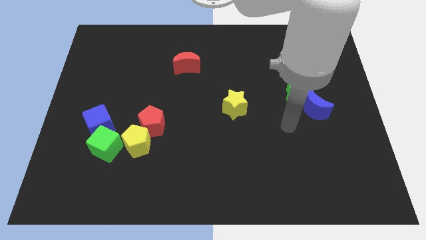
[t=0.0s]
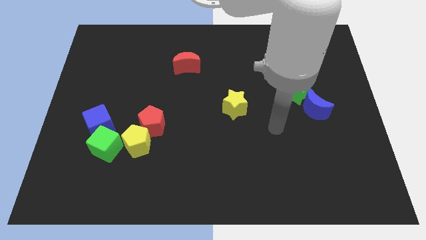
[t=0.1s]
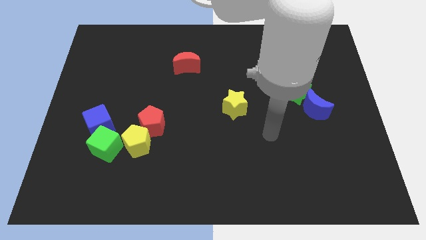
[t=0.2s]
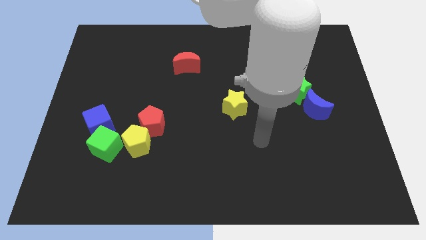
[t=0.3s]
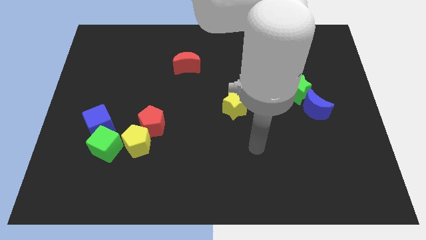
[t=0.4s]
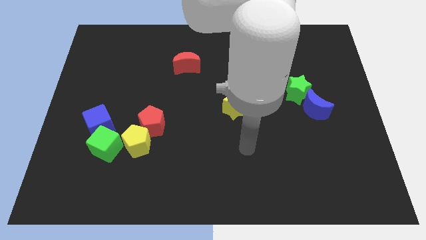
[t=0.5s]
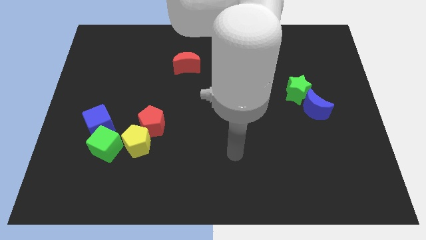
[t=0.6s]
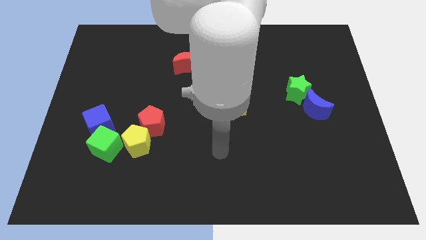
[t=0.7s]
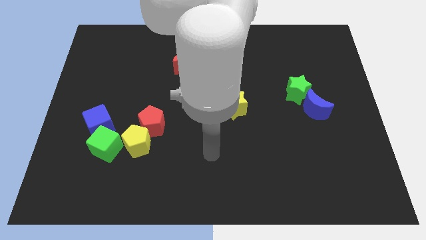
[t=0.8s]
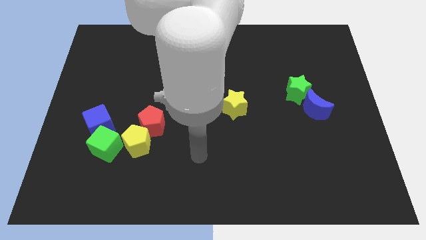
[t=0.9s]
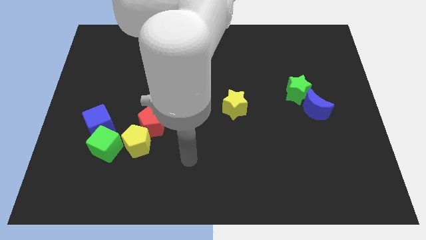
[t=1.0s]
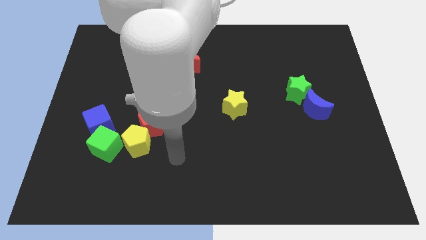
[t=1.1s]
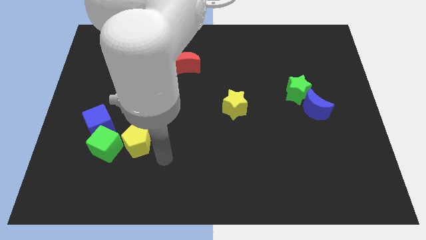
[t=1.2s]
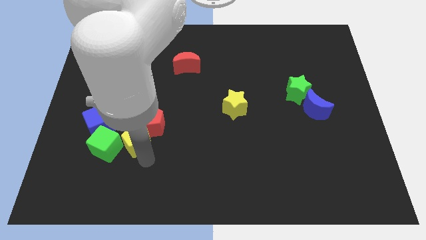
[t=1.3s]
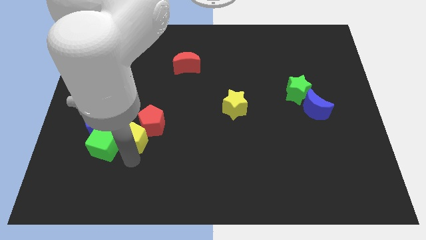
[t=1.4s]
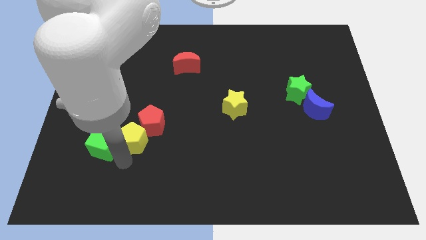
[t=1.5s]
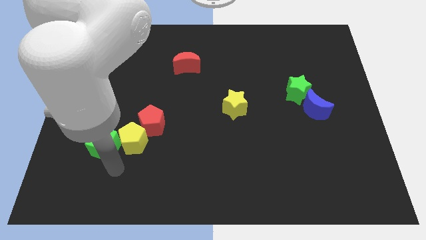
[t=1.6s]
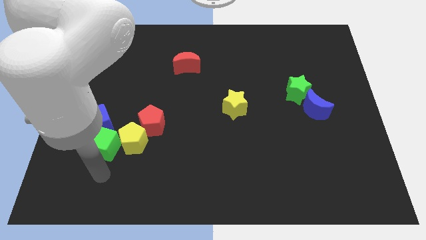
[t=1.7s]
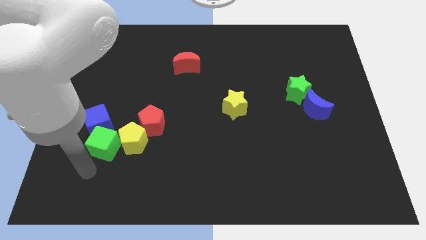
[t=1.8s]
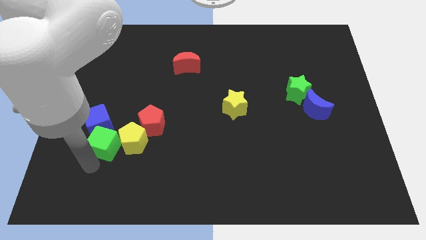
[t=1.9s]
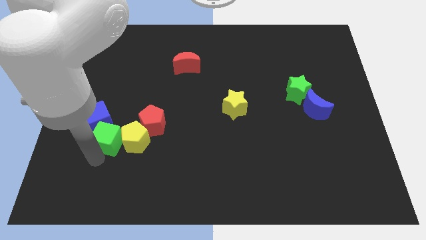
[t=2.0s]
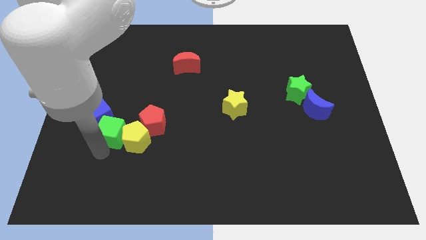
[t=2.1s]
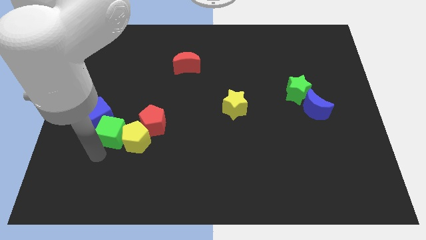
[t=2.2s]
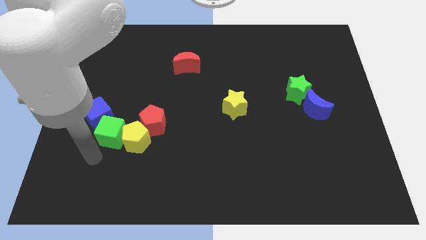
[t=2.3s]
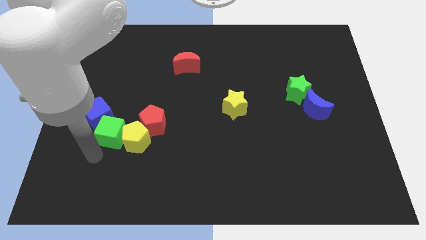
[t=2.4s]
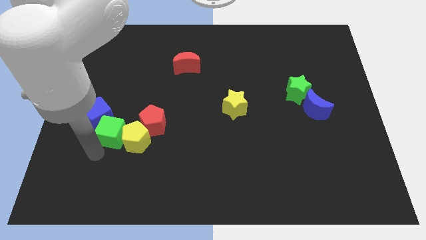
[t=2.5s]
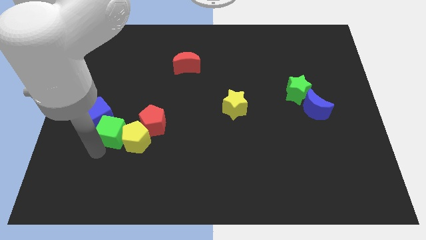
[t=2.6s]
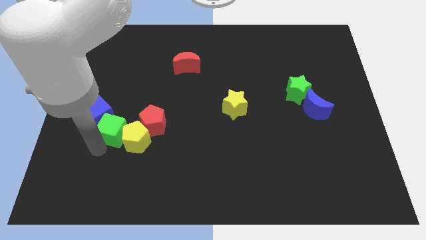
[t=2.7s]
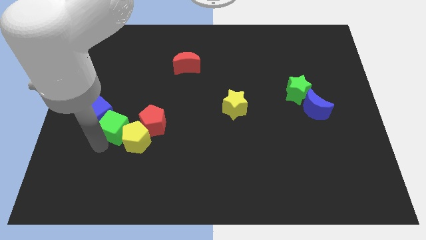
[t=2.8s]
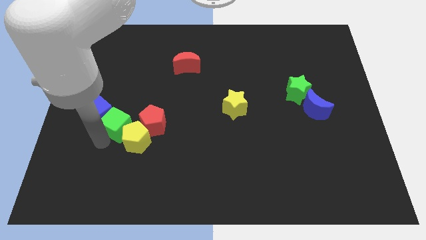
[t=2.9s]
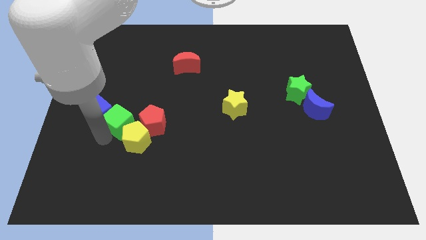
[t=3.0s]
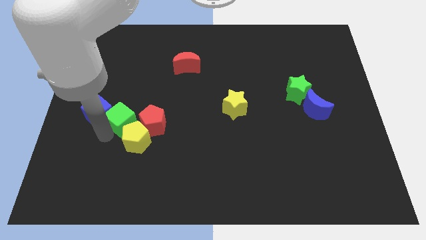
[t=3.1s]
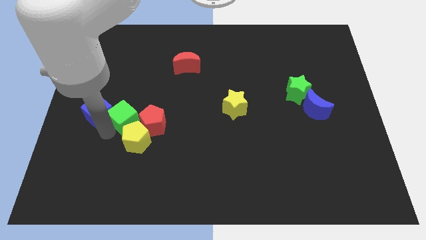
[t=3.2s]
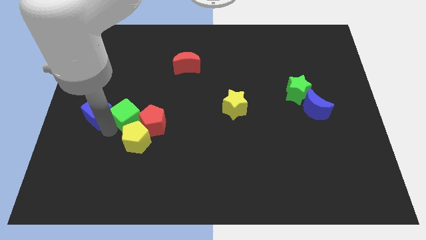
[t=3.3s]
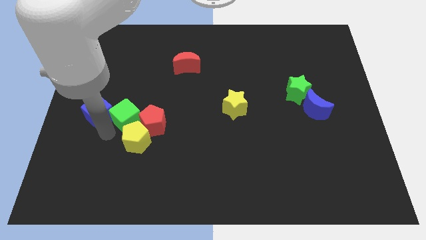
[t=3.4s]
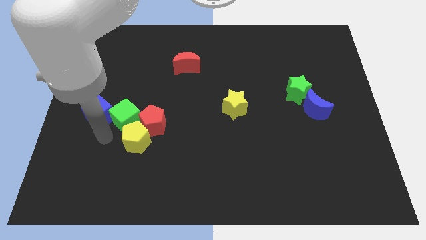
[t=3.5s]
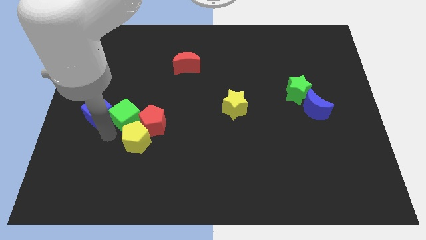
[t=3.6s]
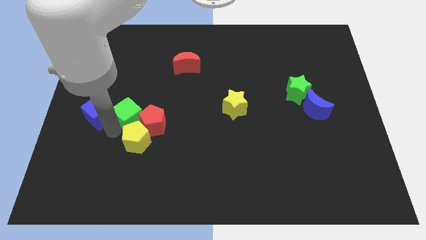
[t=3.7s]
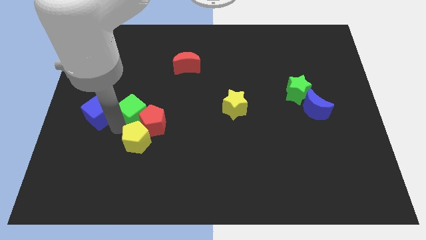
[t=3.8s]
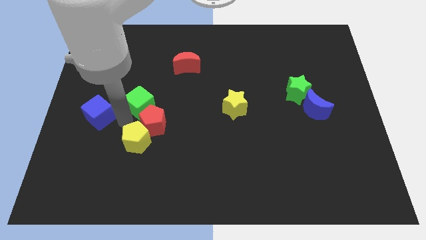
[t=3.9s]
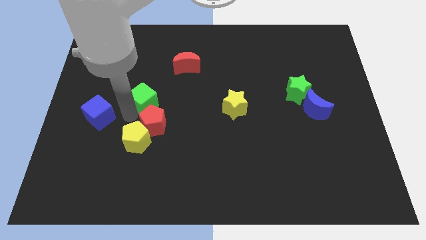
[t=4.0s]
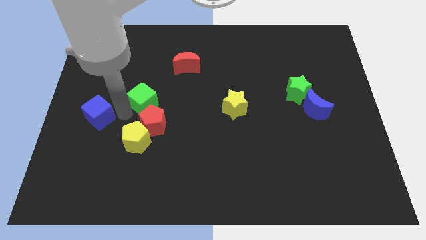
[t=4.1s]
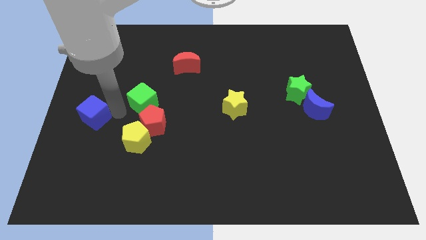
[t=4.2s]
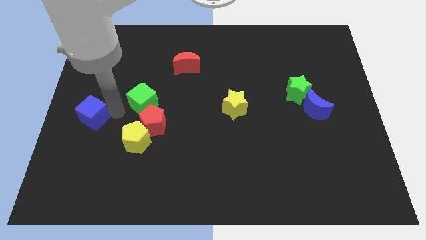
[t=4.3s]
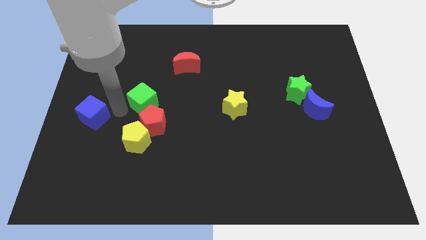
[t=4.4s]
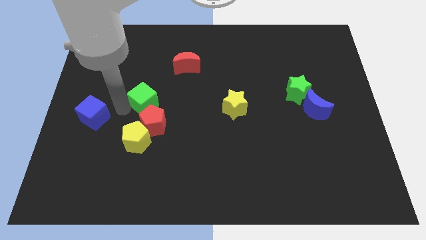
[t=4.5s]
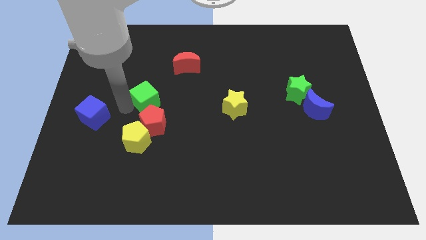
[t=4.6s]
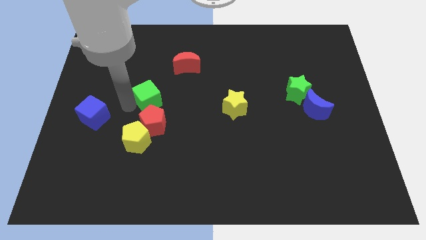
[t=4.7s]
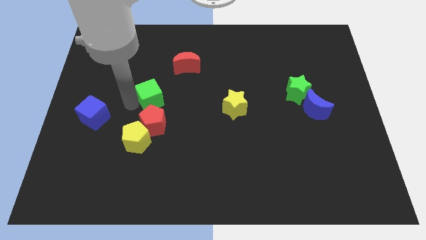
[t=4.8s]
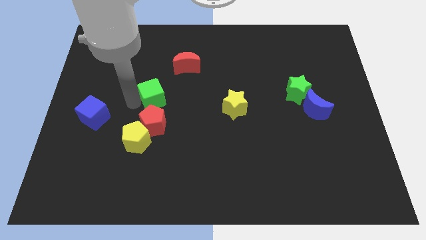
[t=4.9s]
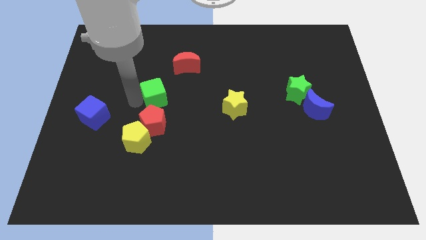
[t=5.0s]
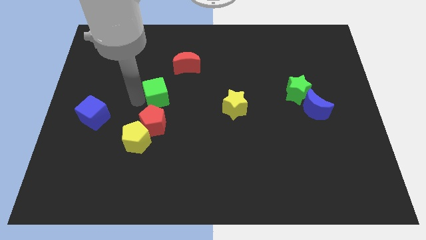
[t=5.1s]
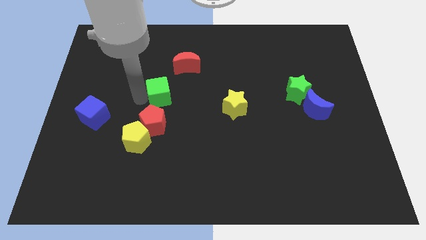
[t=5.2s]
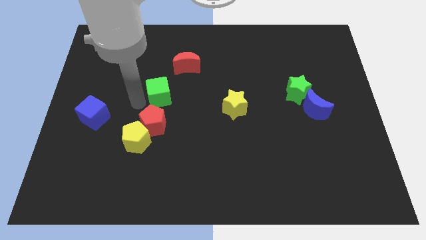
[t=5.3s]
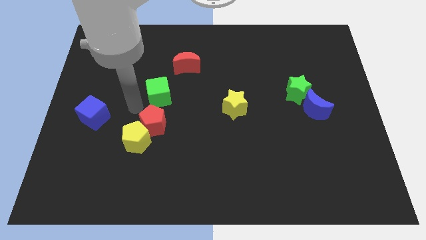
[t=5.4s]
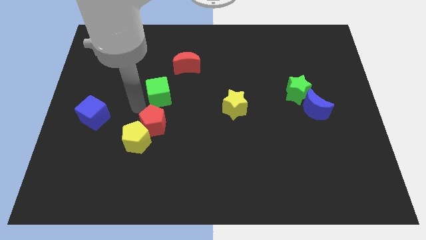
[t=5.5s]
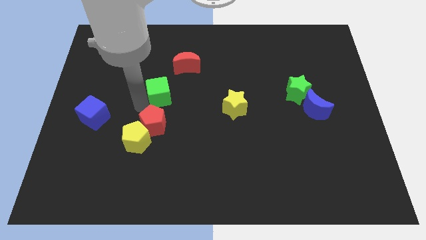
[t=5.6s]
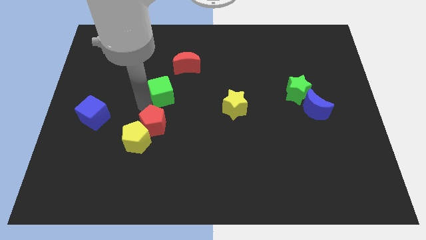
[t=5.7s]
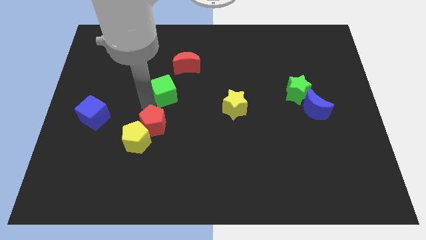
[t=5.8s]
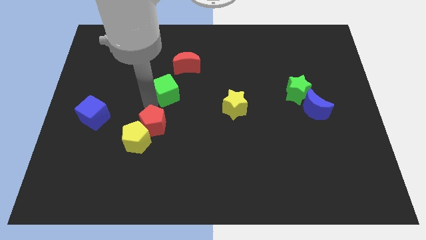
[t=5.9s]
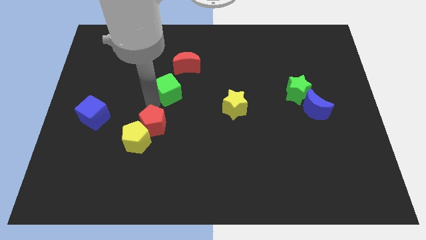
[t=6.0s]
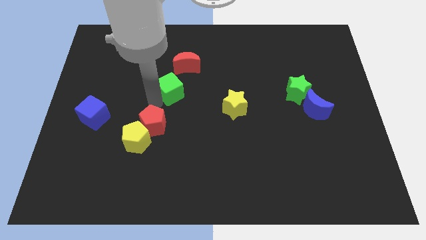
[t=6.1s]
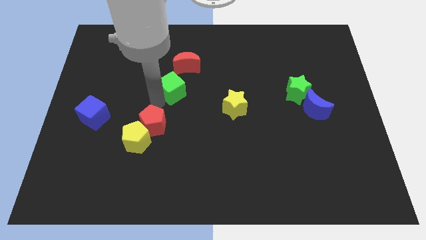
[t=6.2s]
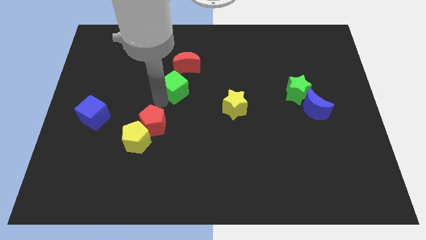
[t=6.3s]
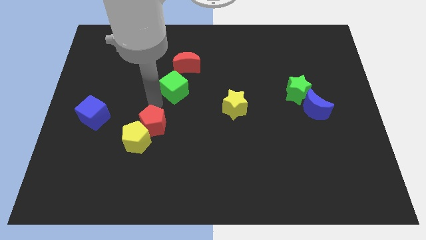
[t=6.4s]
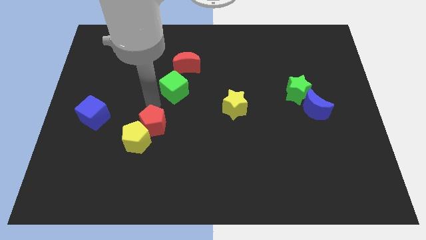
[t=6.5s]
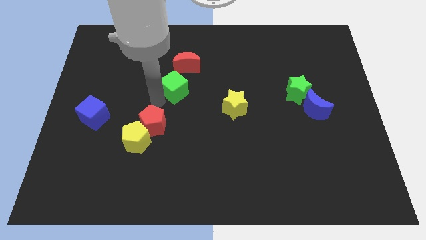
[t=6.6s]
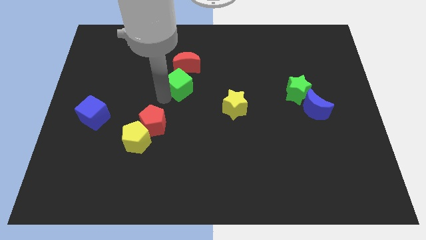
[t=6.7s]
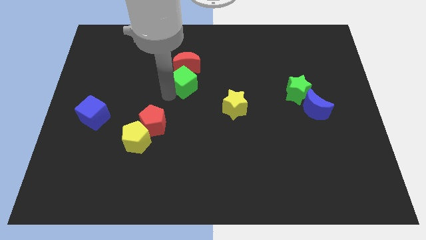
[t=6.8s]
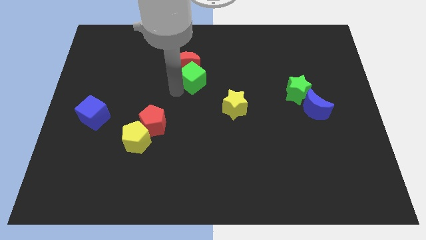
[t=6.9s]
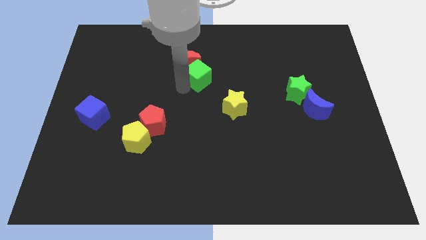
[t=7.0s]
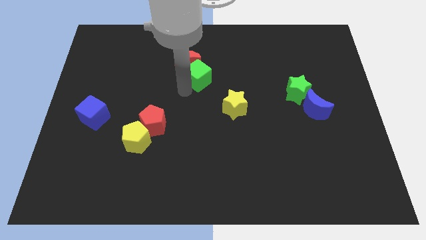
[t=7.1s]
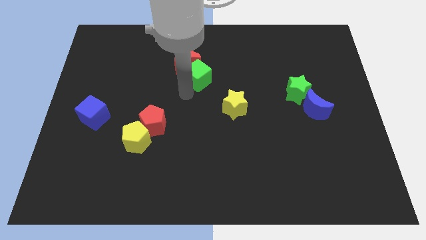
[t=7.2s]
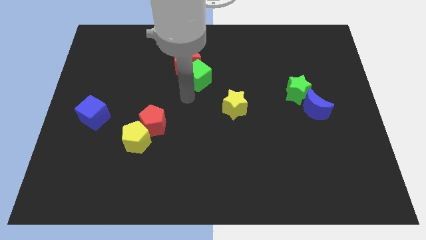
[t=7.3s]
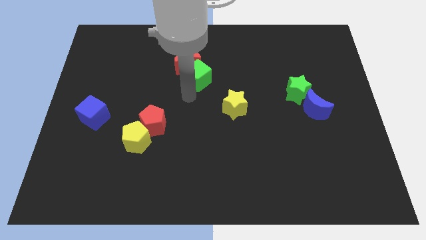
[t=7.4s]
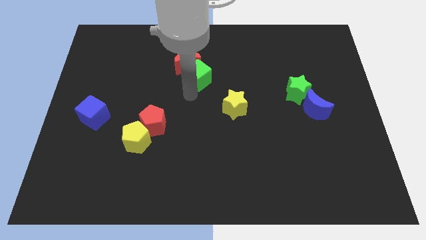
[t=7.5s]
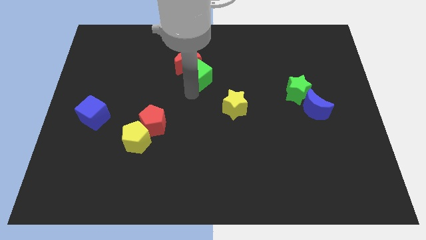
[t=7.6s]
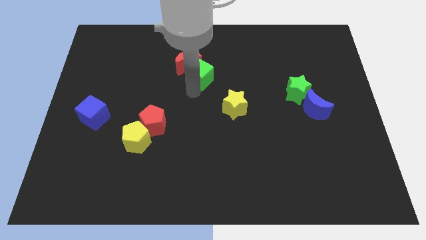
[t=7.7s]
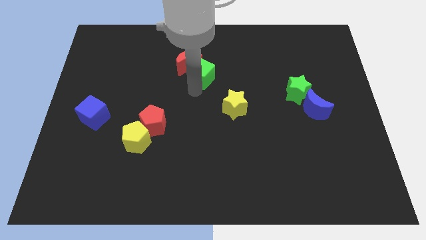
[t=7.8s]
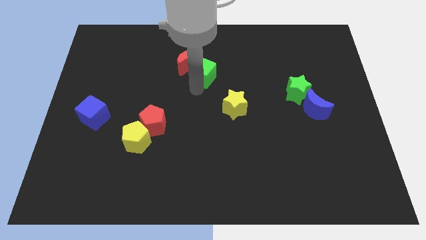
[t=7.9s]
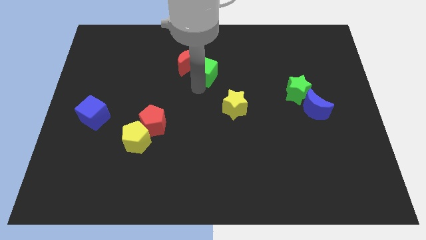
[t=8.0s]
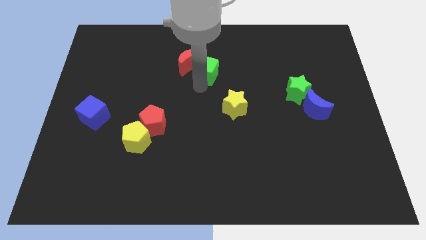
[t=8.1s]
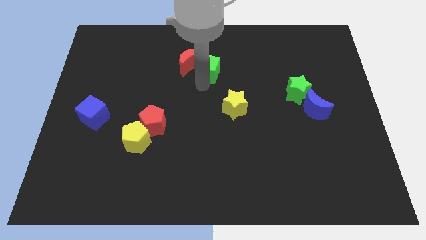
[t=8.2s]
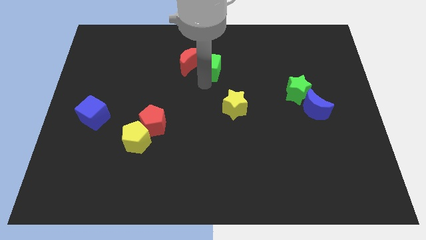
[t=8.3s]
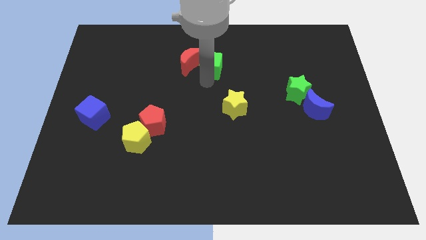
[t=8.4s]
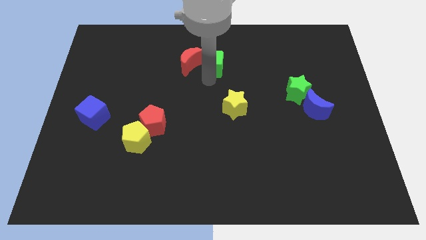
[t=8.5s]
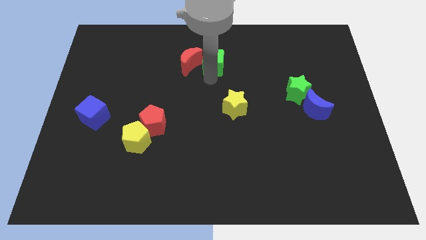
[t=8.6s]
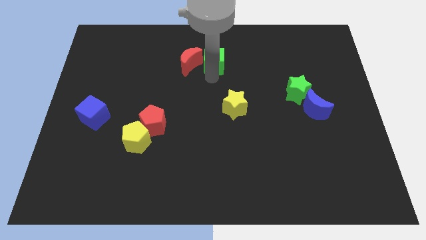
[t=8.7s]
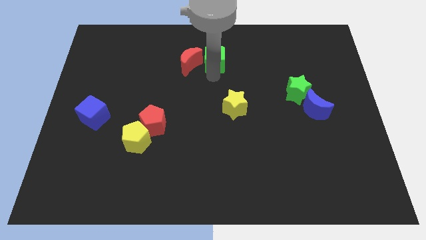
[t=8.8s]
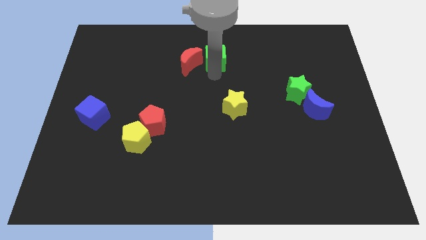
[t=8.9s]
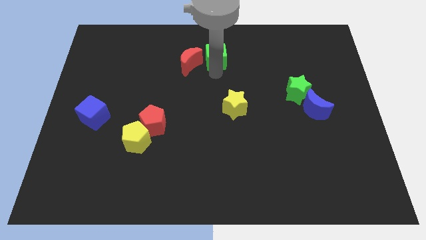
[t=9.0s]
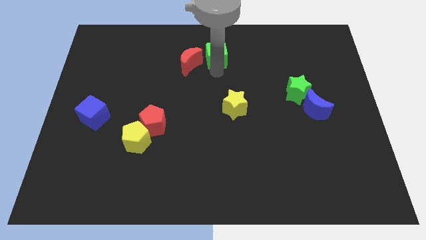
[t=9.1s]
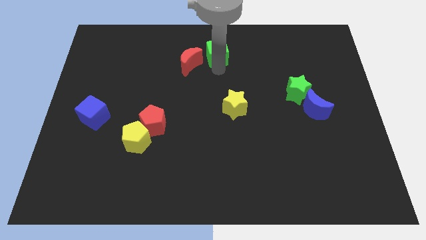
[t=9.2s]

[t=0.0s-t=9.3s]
push the green cube to the towards your base
